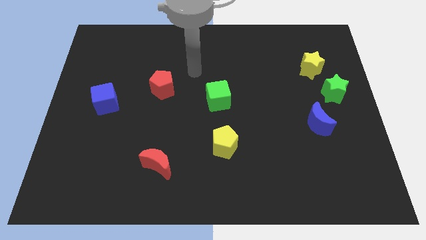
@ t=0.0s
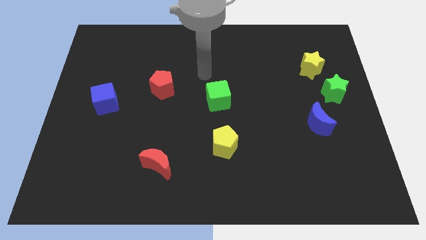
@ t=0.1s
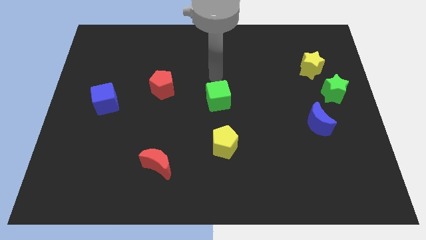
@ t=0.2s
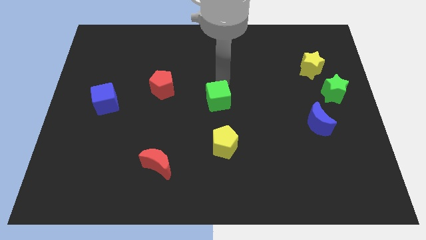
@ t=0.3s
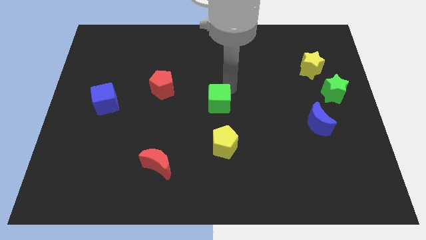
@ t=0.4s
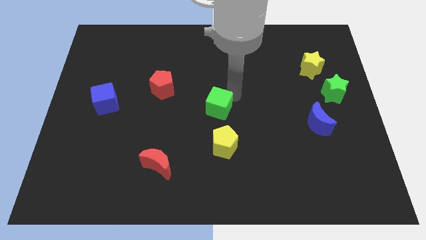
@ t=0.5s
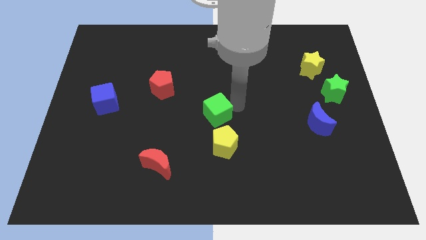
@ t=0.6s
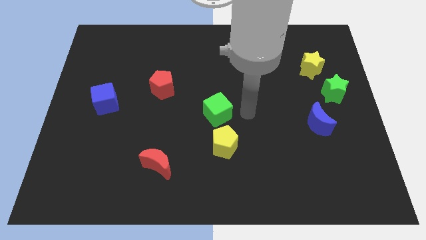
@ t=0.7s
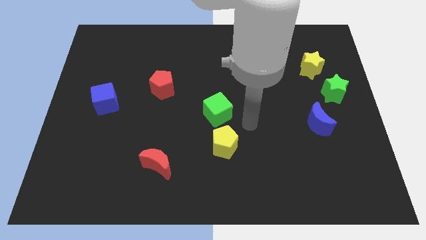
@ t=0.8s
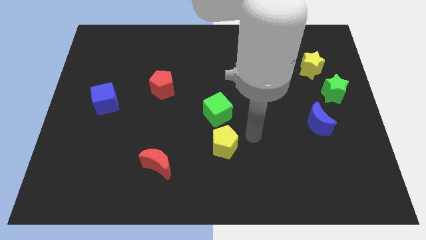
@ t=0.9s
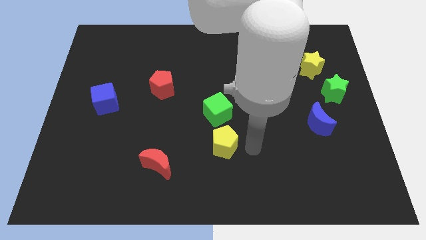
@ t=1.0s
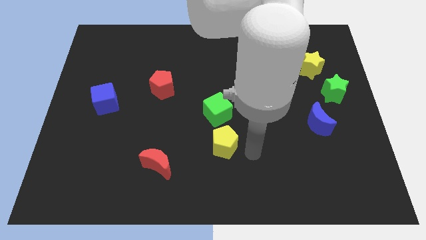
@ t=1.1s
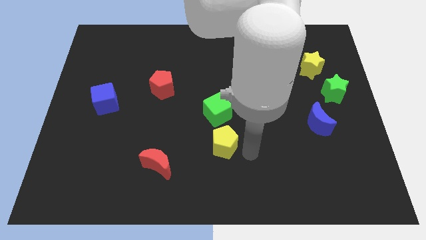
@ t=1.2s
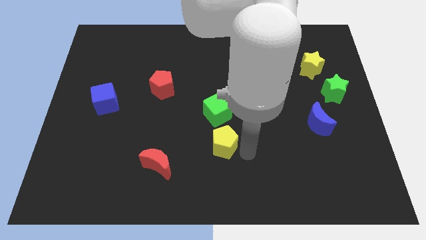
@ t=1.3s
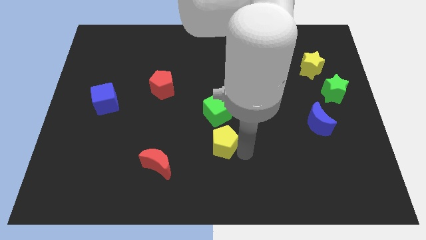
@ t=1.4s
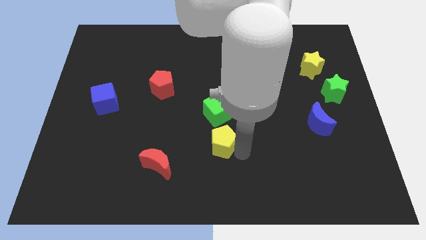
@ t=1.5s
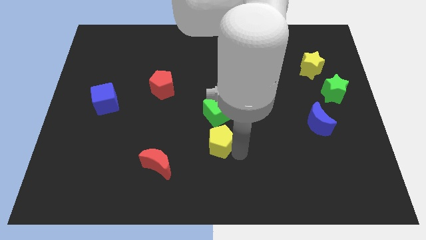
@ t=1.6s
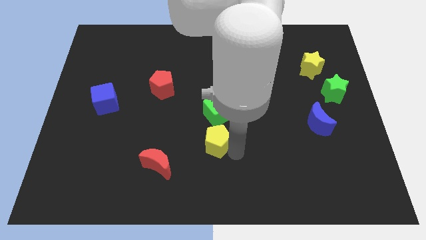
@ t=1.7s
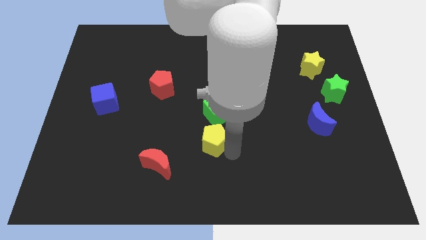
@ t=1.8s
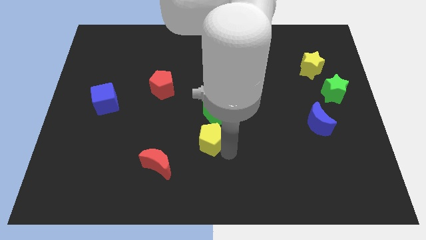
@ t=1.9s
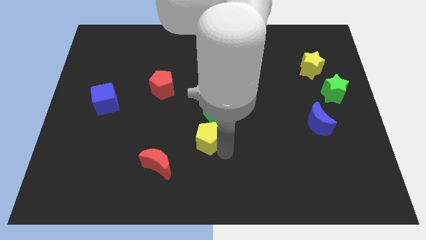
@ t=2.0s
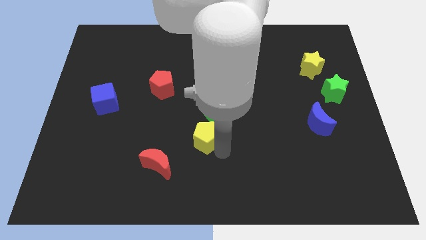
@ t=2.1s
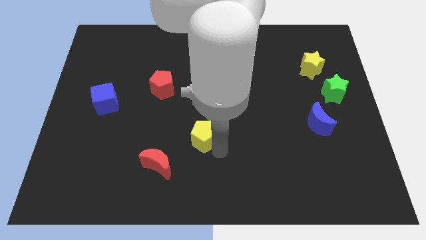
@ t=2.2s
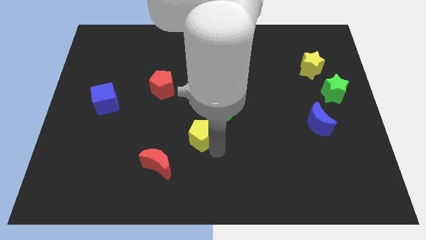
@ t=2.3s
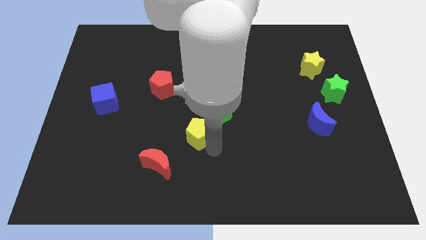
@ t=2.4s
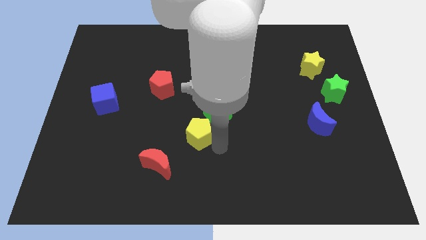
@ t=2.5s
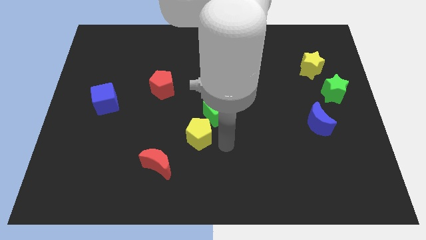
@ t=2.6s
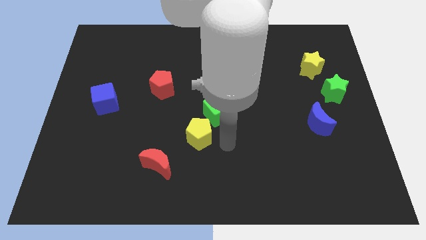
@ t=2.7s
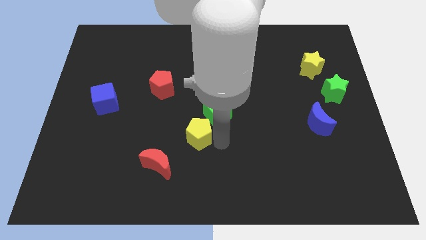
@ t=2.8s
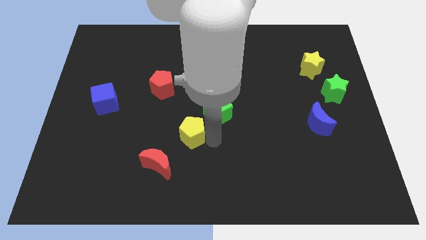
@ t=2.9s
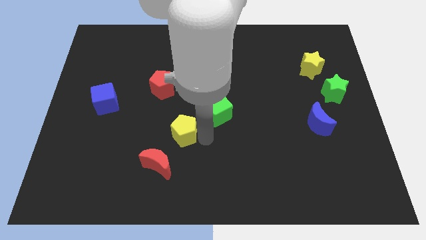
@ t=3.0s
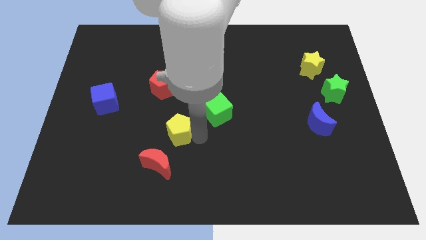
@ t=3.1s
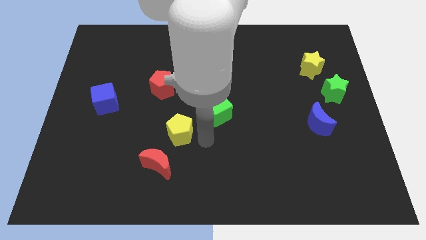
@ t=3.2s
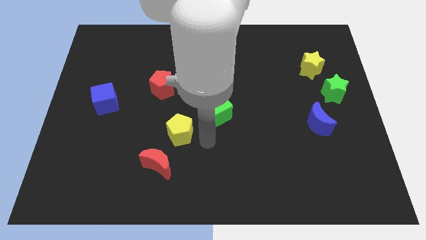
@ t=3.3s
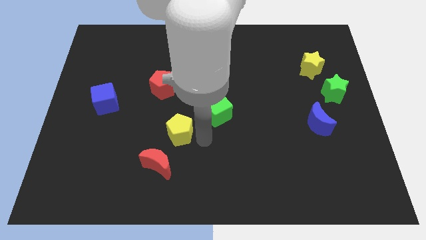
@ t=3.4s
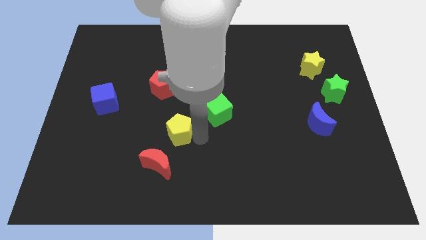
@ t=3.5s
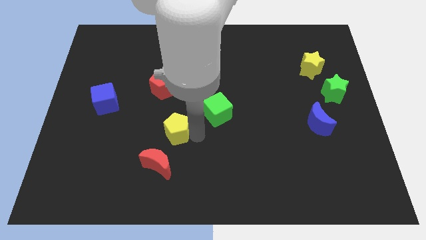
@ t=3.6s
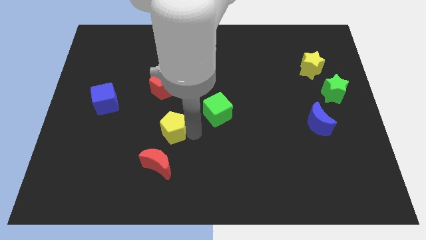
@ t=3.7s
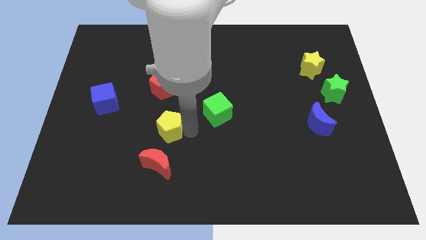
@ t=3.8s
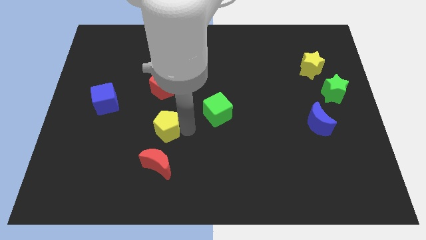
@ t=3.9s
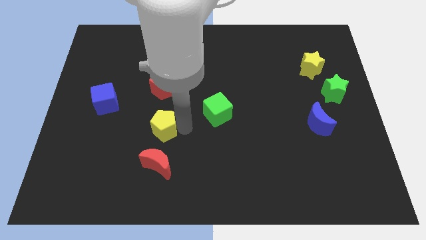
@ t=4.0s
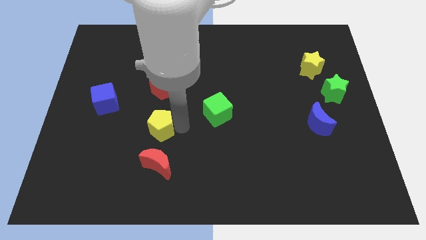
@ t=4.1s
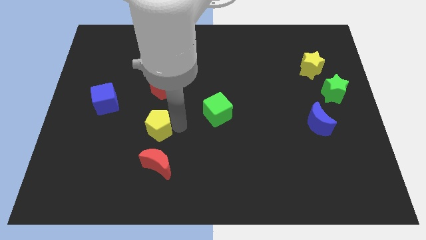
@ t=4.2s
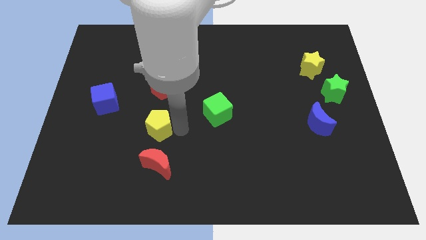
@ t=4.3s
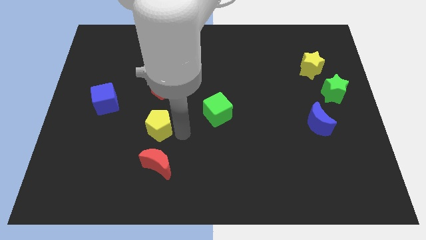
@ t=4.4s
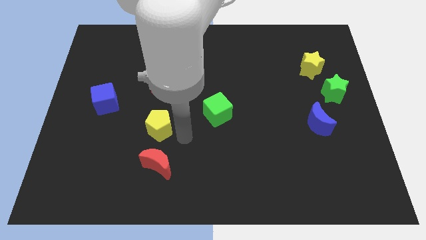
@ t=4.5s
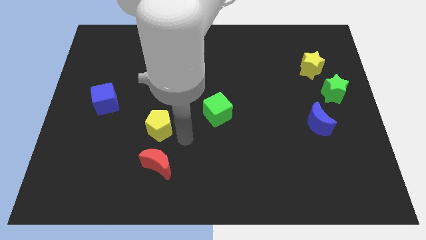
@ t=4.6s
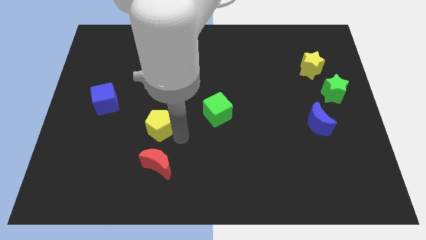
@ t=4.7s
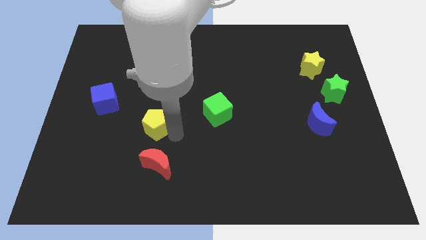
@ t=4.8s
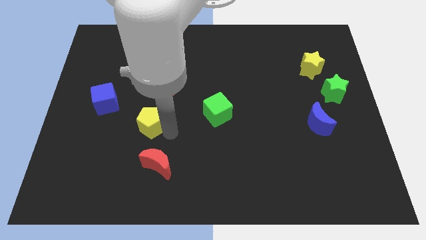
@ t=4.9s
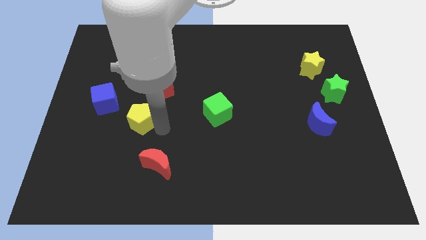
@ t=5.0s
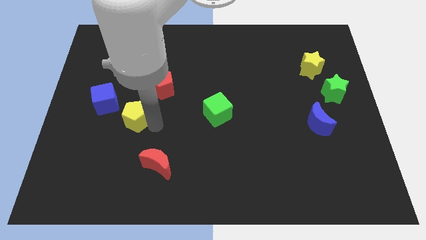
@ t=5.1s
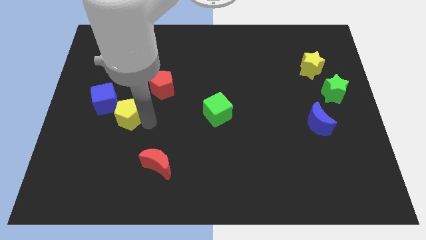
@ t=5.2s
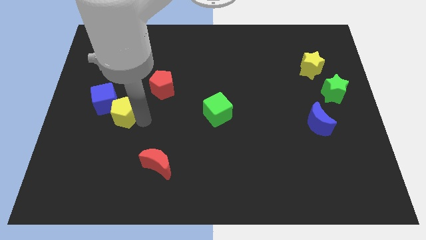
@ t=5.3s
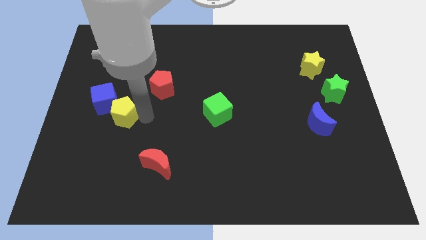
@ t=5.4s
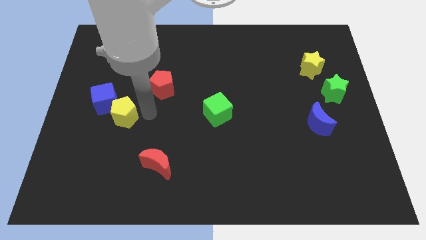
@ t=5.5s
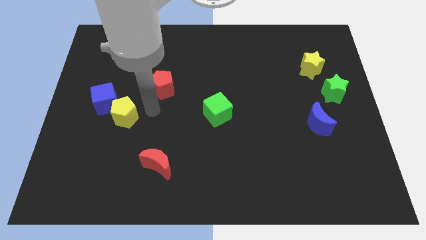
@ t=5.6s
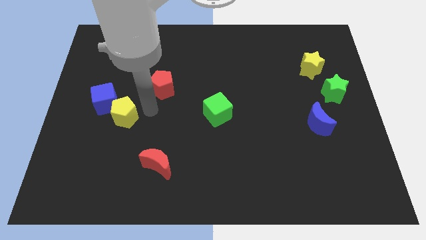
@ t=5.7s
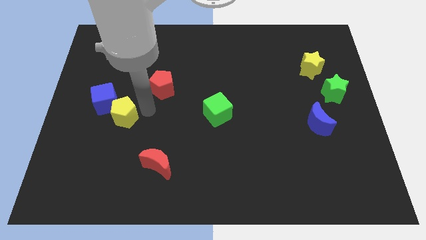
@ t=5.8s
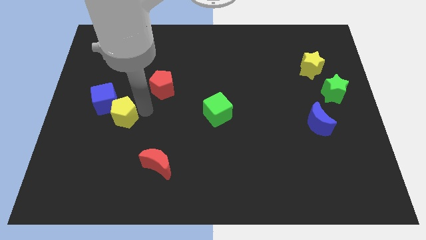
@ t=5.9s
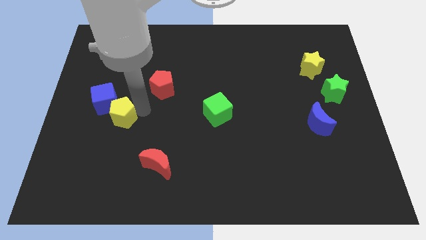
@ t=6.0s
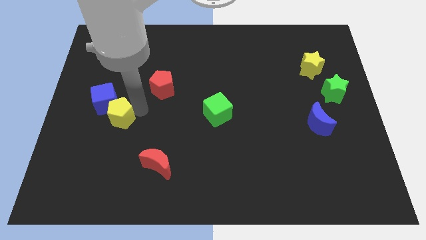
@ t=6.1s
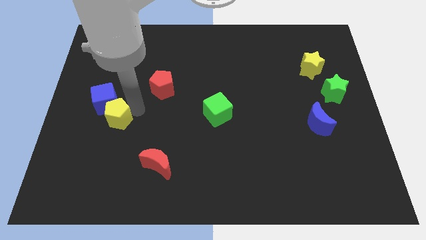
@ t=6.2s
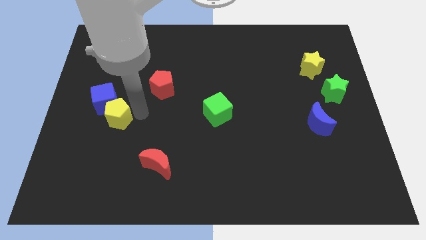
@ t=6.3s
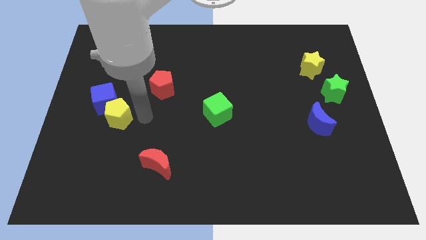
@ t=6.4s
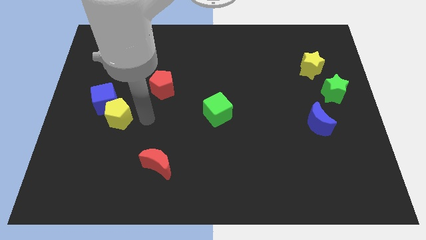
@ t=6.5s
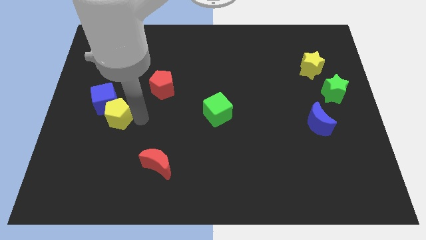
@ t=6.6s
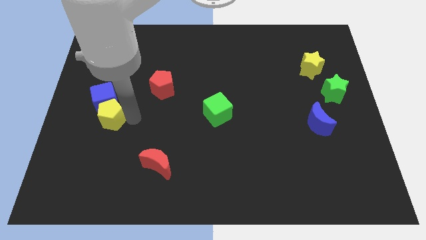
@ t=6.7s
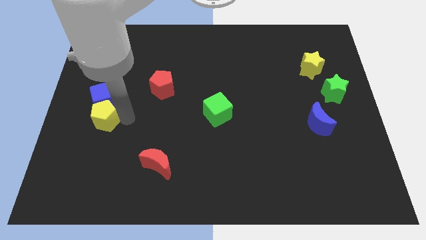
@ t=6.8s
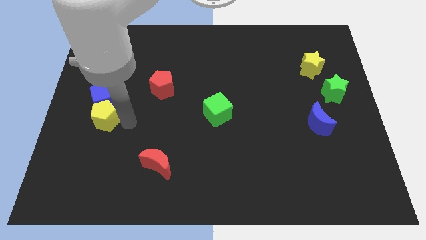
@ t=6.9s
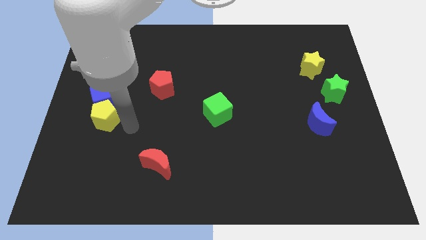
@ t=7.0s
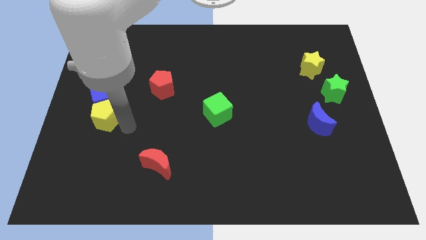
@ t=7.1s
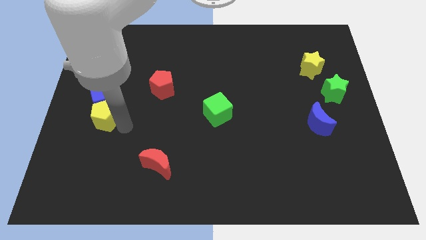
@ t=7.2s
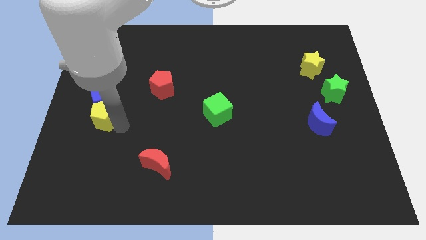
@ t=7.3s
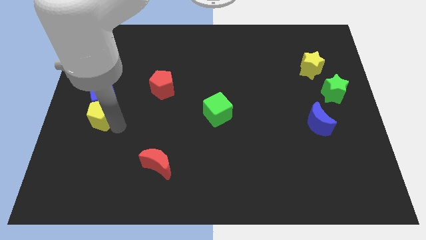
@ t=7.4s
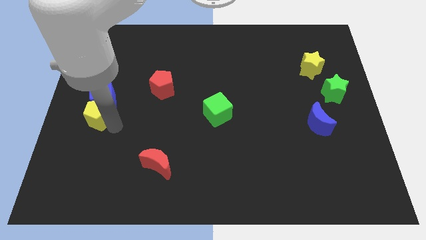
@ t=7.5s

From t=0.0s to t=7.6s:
put the yellow pentagon to the center left
